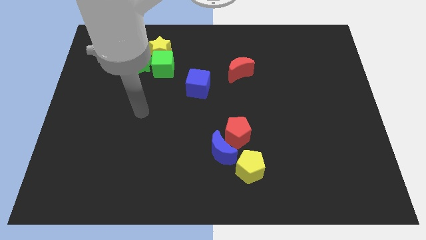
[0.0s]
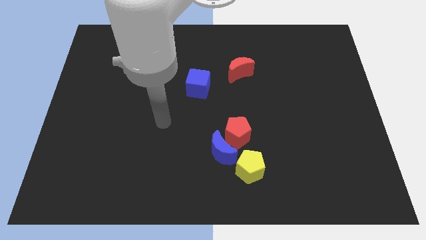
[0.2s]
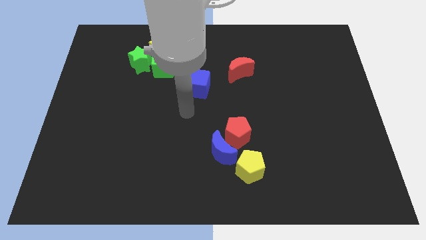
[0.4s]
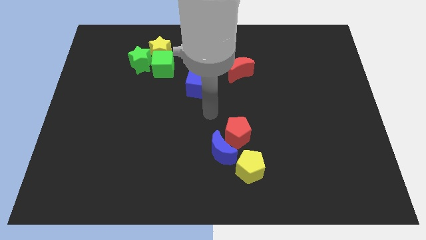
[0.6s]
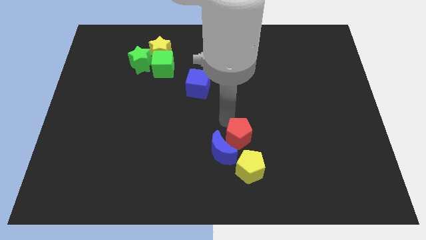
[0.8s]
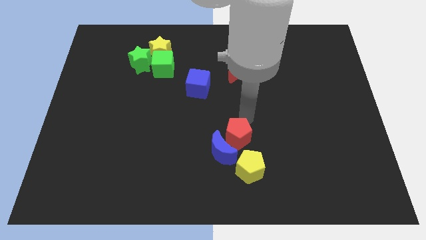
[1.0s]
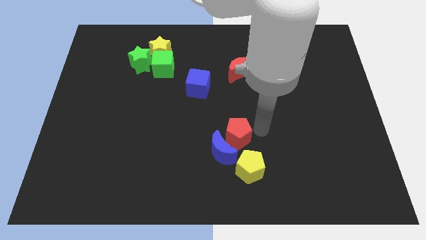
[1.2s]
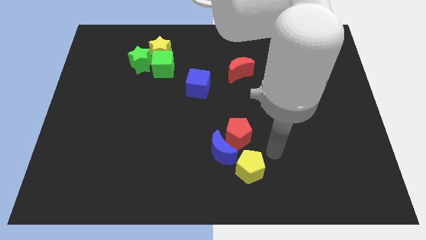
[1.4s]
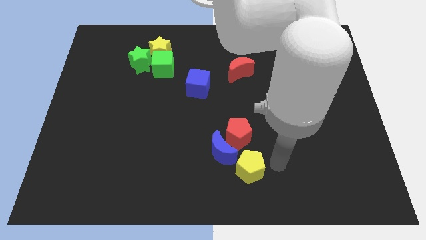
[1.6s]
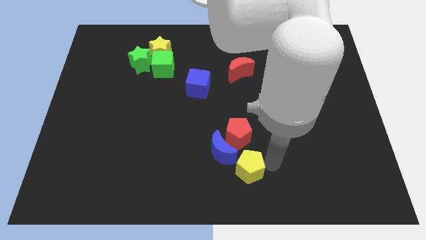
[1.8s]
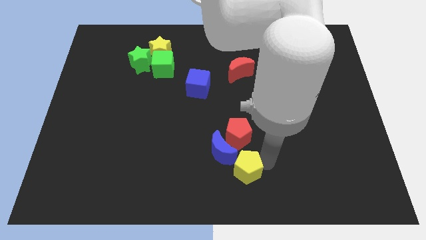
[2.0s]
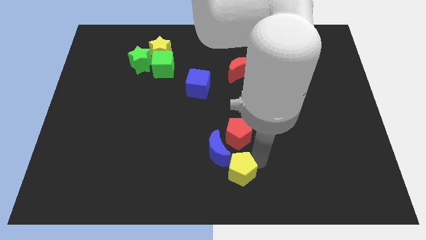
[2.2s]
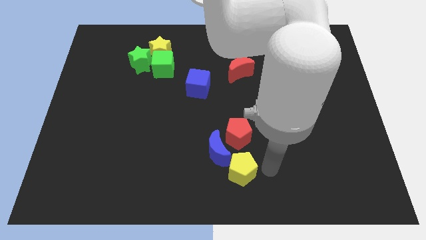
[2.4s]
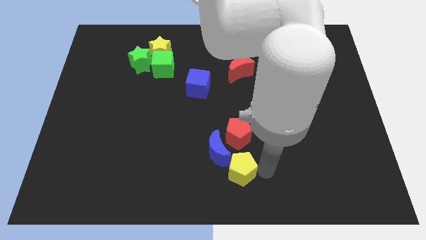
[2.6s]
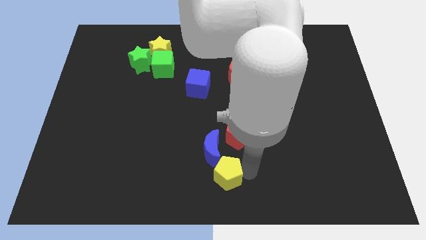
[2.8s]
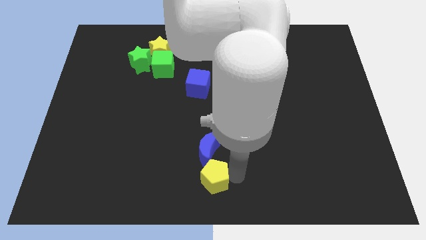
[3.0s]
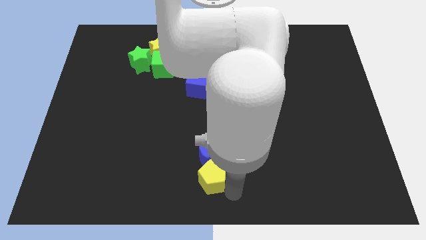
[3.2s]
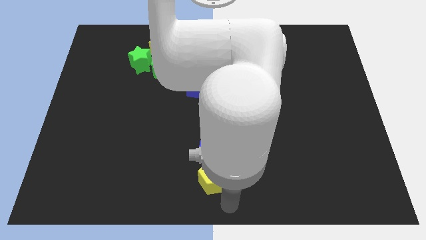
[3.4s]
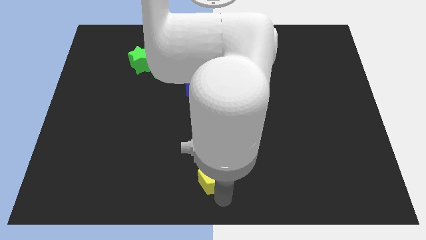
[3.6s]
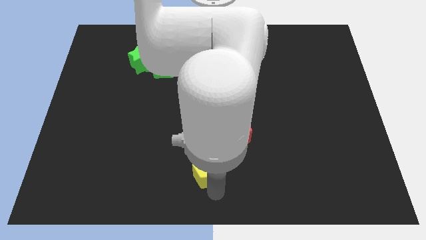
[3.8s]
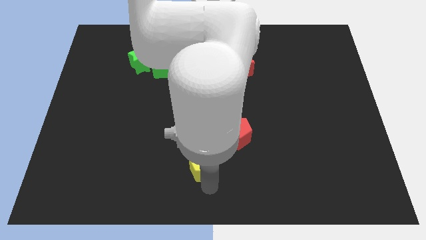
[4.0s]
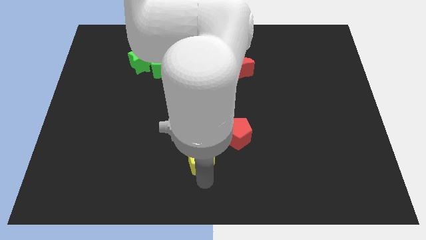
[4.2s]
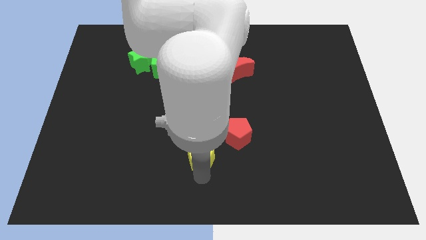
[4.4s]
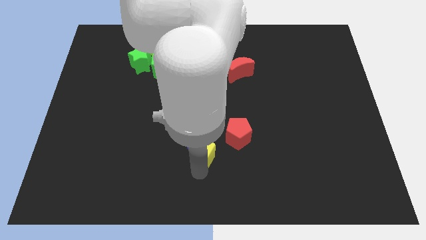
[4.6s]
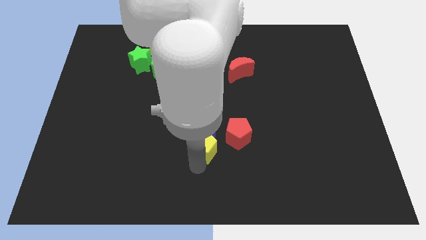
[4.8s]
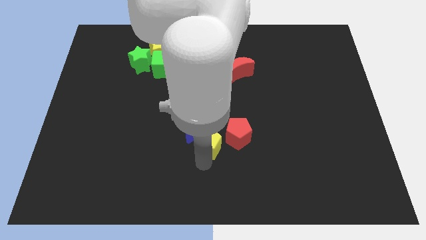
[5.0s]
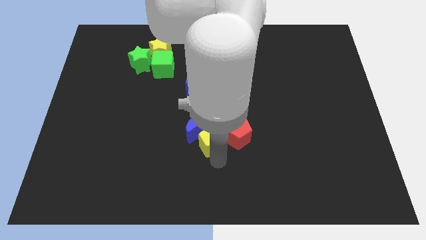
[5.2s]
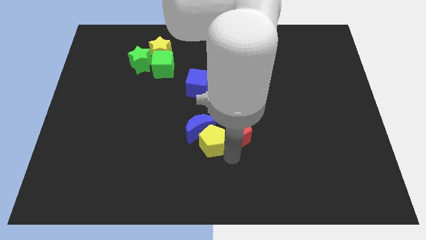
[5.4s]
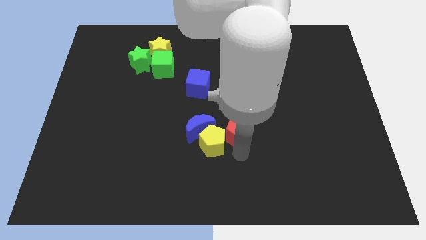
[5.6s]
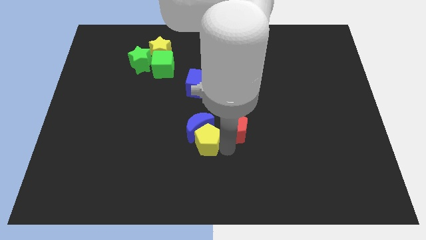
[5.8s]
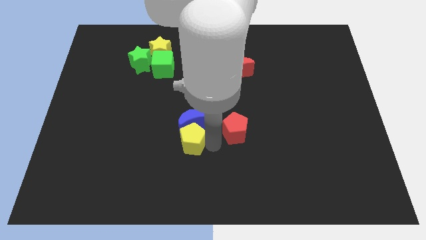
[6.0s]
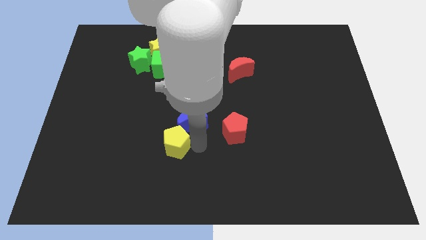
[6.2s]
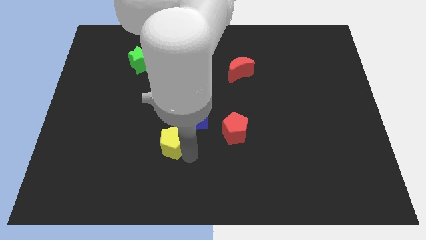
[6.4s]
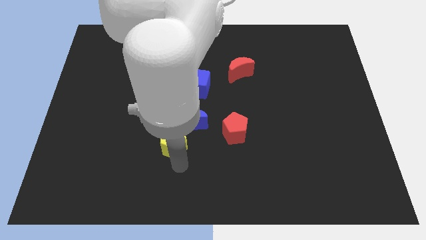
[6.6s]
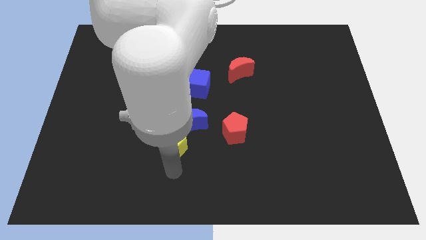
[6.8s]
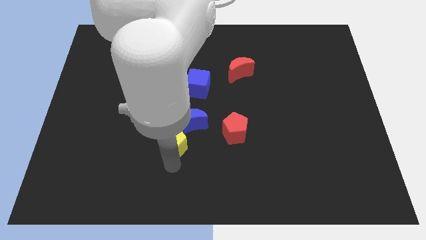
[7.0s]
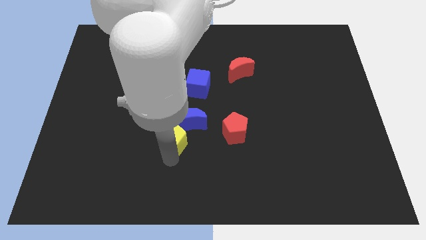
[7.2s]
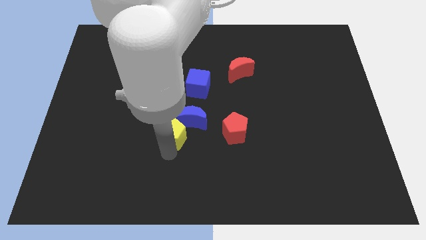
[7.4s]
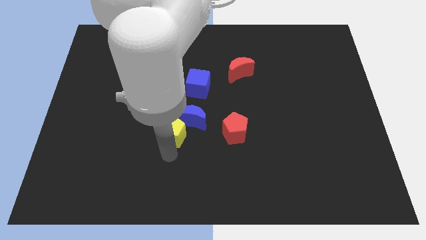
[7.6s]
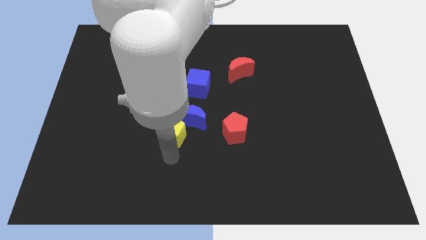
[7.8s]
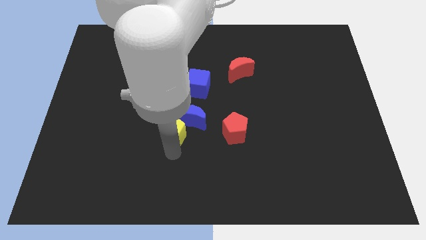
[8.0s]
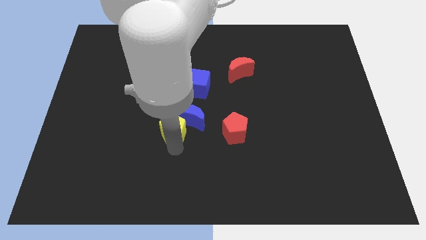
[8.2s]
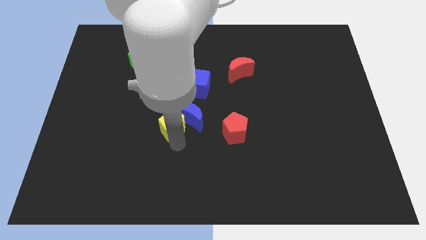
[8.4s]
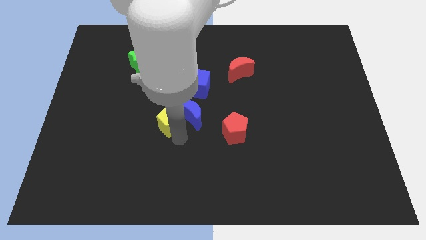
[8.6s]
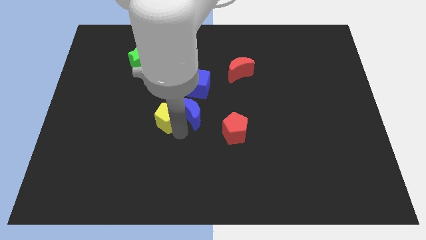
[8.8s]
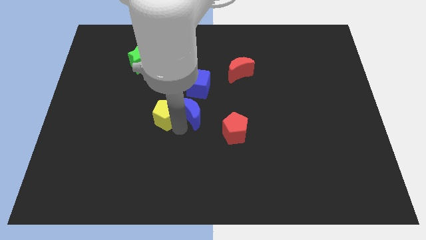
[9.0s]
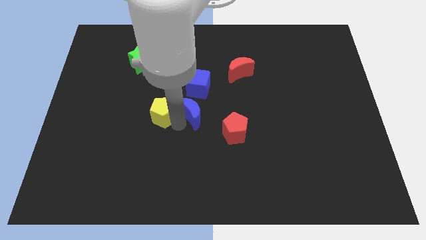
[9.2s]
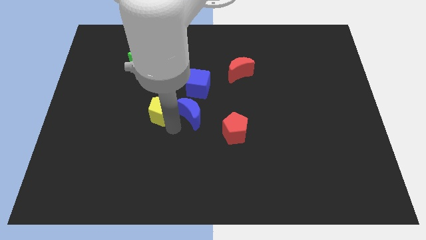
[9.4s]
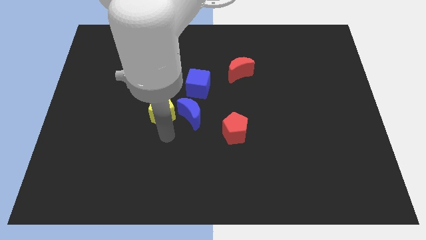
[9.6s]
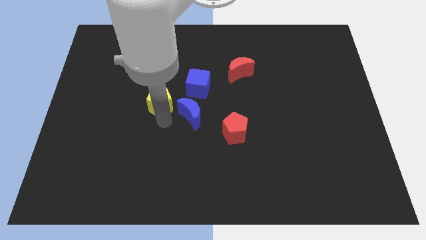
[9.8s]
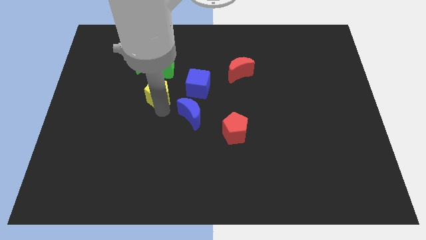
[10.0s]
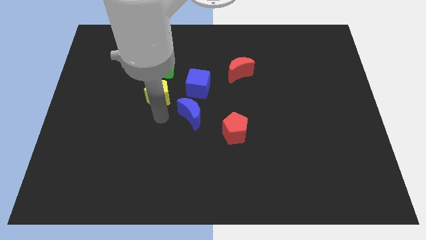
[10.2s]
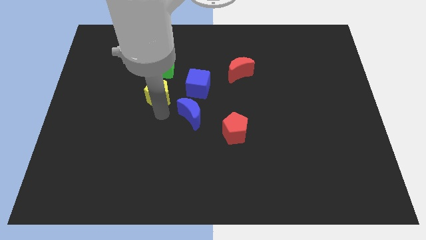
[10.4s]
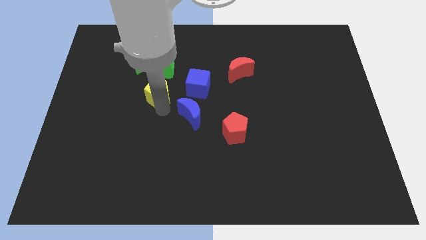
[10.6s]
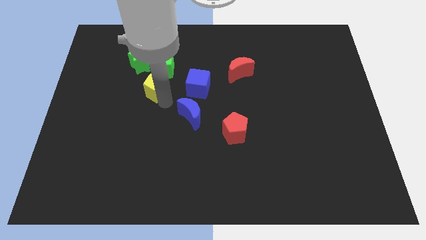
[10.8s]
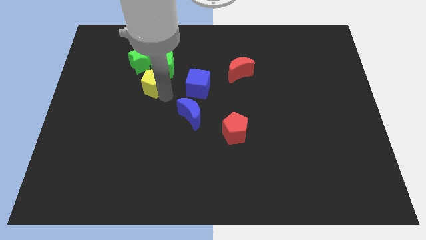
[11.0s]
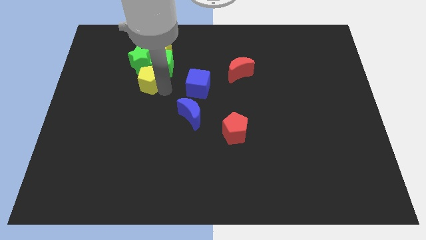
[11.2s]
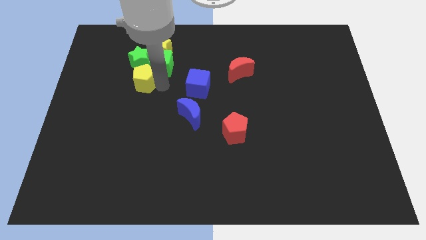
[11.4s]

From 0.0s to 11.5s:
push the yellow pentagon towards the green star
